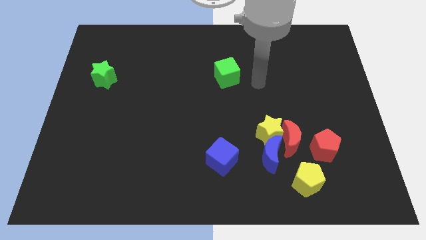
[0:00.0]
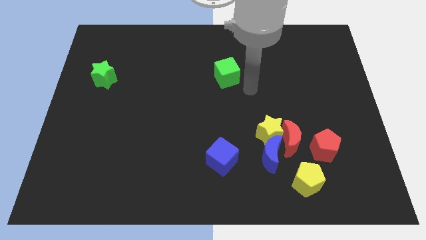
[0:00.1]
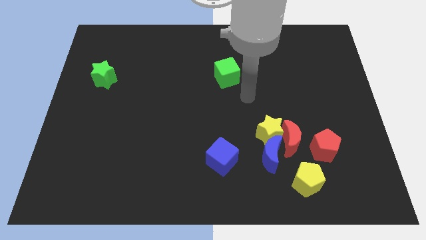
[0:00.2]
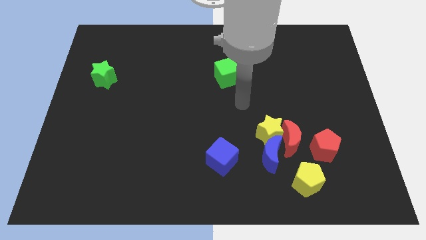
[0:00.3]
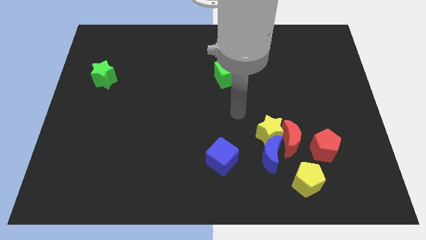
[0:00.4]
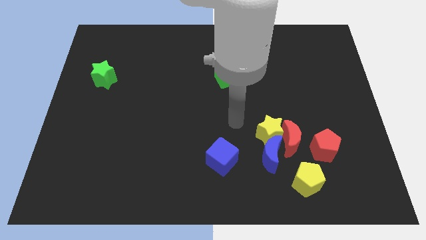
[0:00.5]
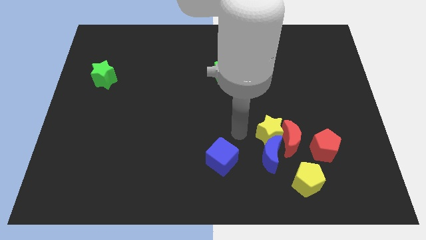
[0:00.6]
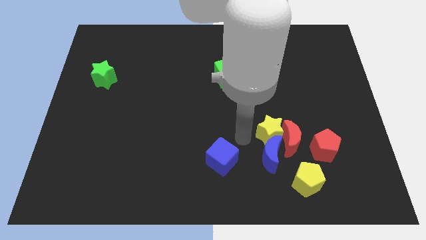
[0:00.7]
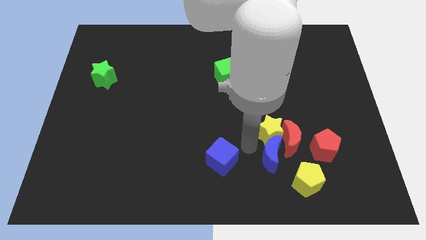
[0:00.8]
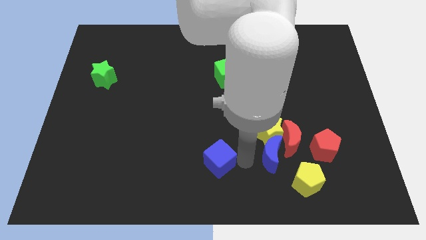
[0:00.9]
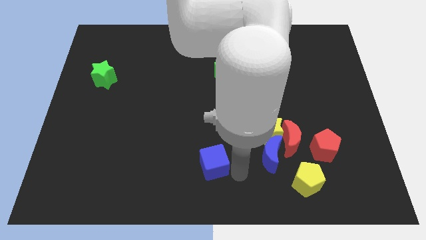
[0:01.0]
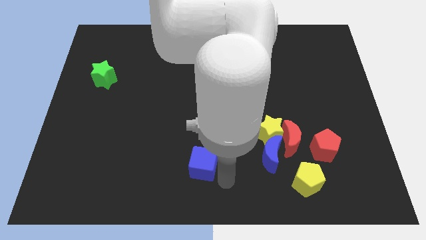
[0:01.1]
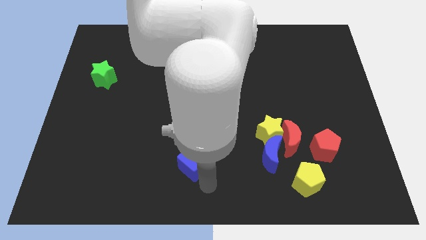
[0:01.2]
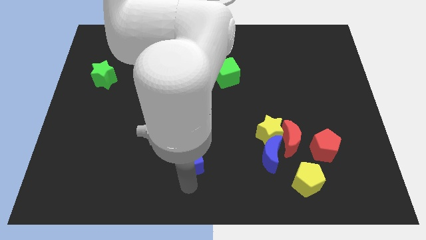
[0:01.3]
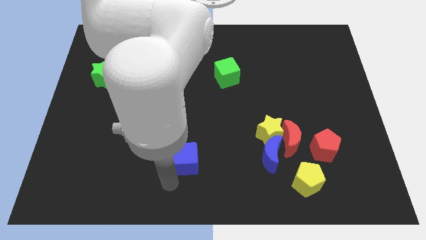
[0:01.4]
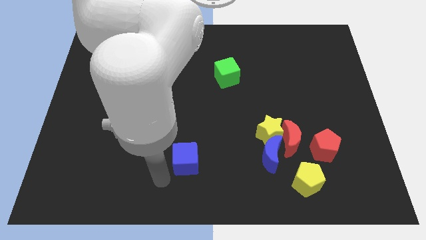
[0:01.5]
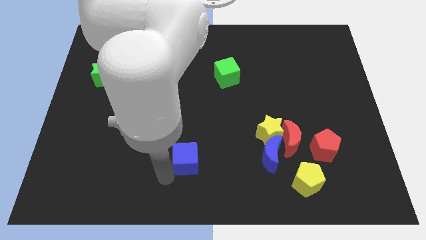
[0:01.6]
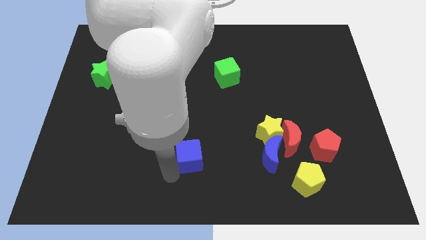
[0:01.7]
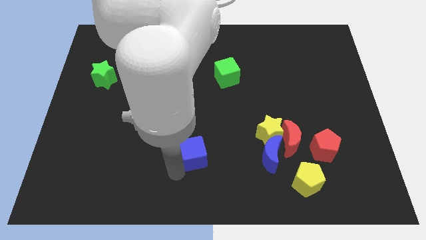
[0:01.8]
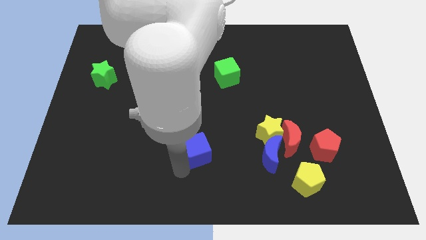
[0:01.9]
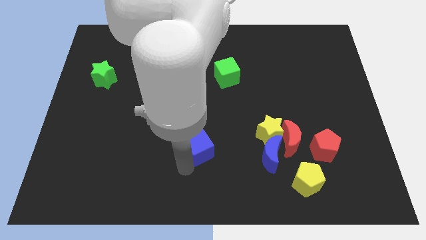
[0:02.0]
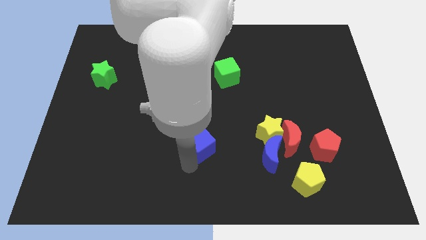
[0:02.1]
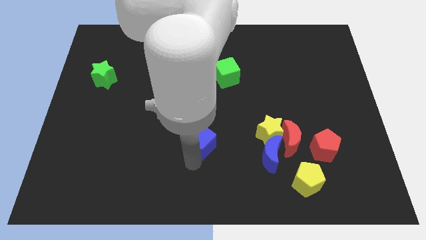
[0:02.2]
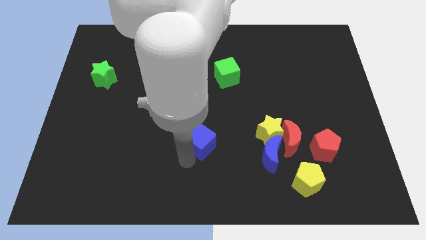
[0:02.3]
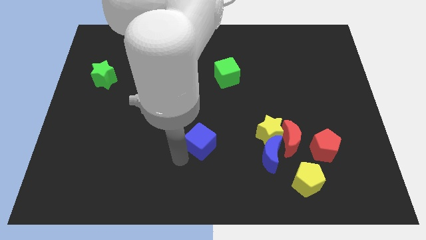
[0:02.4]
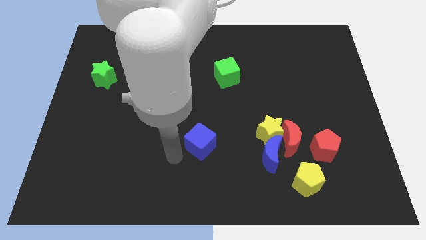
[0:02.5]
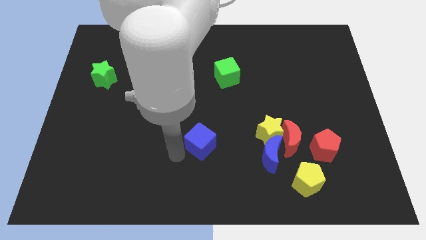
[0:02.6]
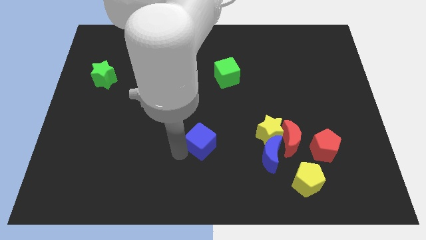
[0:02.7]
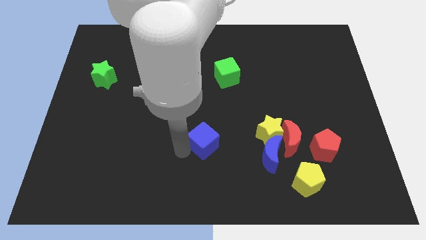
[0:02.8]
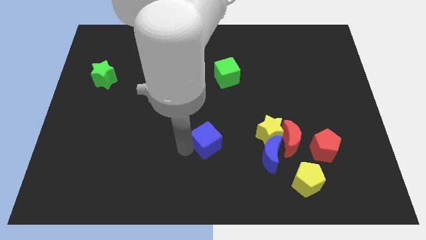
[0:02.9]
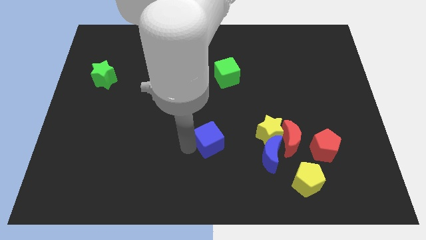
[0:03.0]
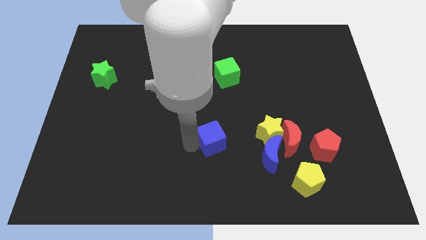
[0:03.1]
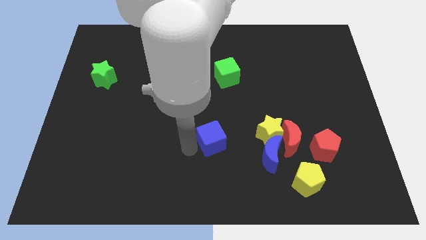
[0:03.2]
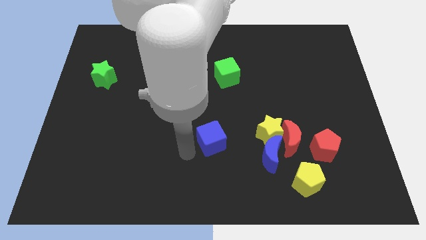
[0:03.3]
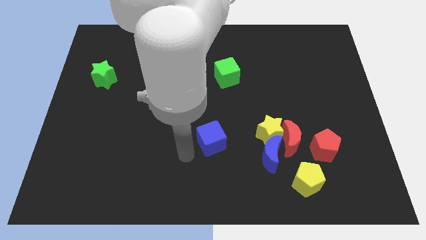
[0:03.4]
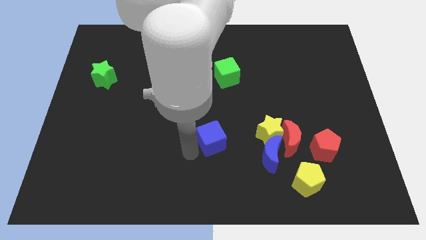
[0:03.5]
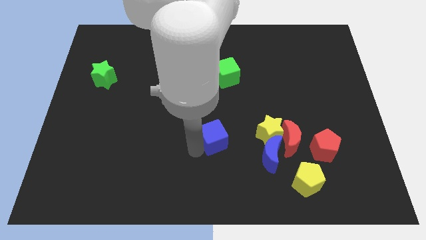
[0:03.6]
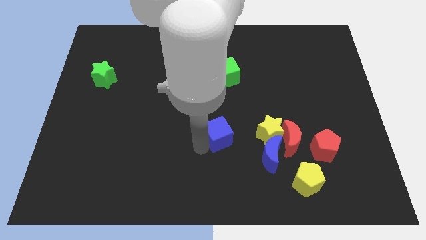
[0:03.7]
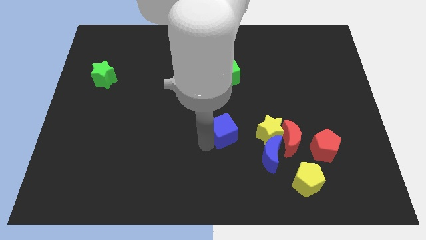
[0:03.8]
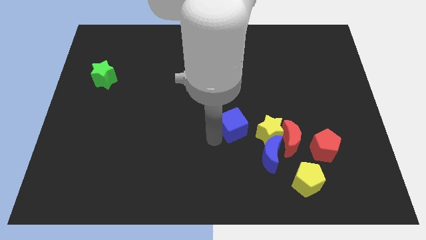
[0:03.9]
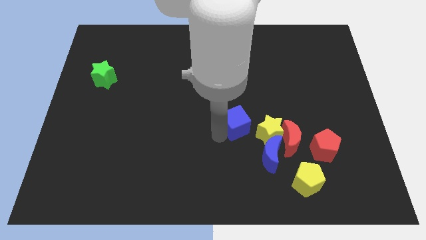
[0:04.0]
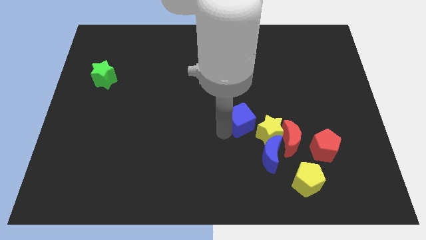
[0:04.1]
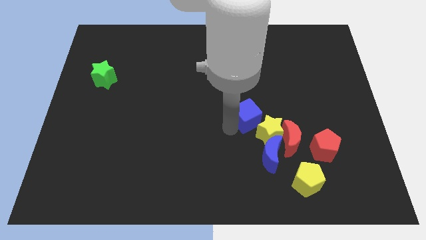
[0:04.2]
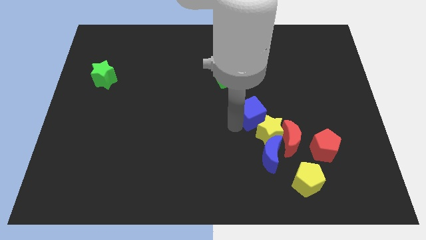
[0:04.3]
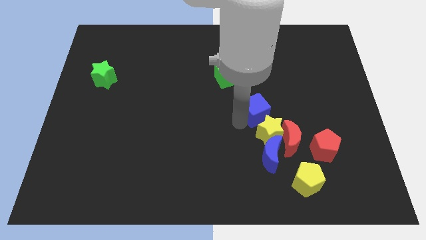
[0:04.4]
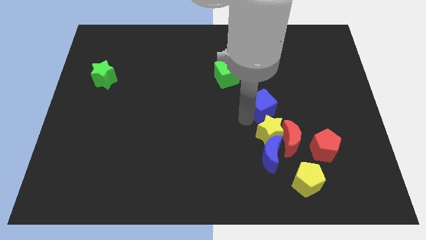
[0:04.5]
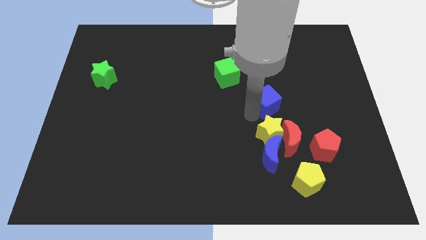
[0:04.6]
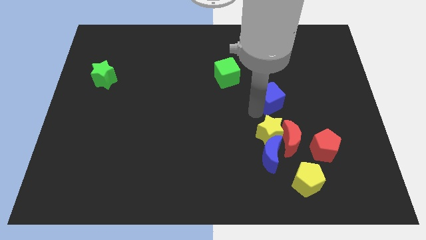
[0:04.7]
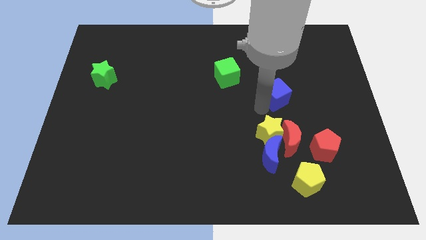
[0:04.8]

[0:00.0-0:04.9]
move the blue cube diagonally upwards and right

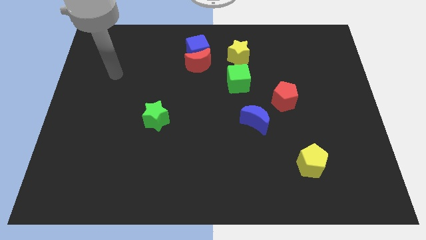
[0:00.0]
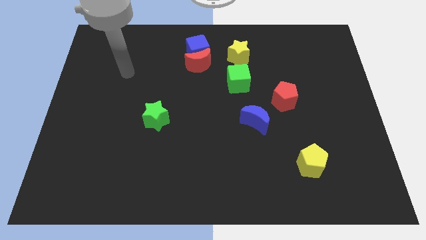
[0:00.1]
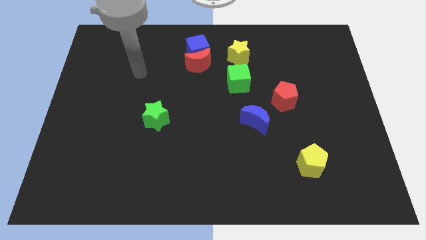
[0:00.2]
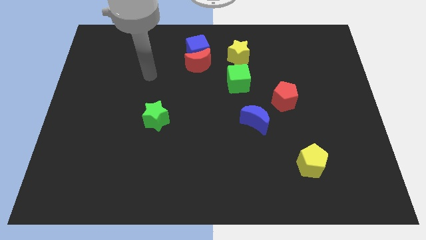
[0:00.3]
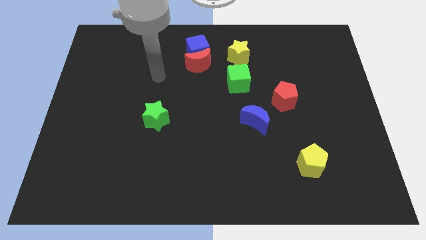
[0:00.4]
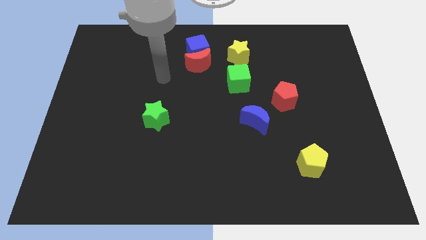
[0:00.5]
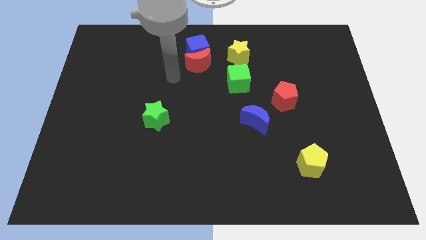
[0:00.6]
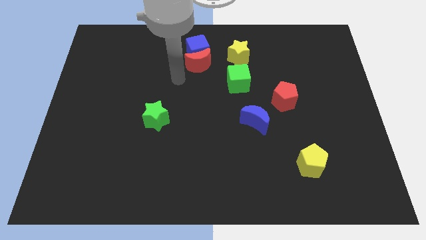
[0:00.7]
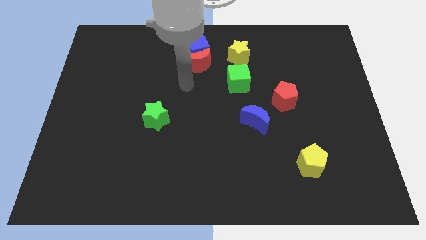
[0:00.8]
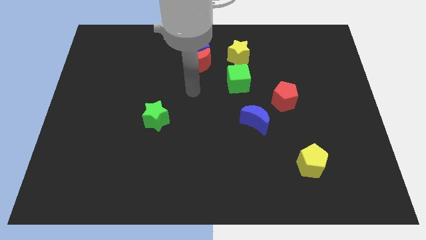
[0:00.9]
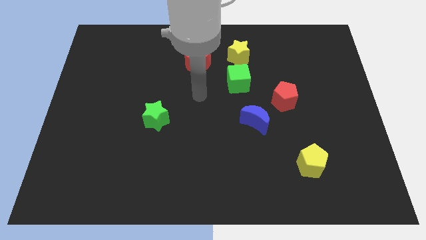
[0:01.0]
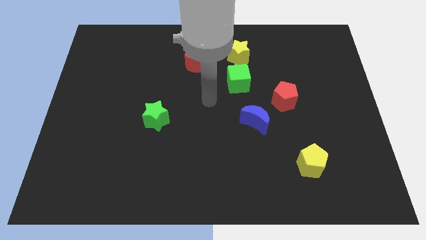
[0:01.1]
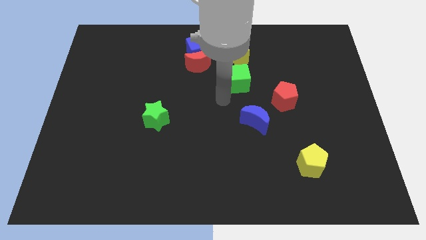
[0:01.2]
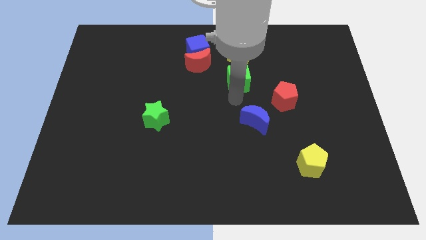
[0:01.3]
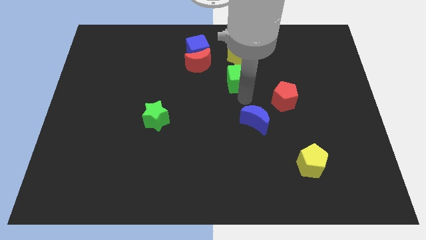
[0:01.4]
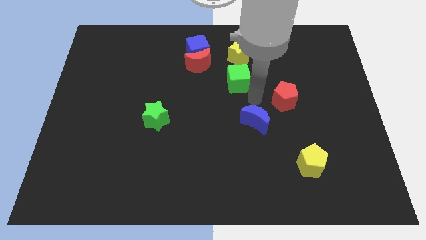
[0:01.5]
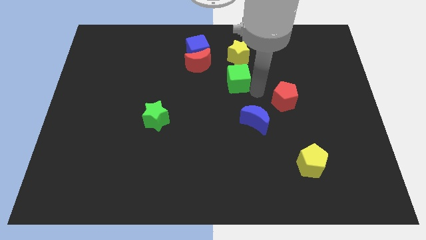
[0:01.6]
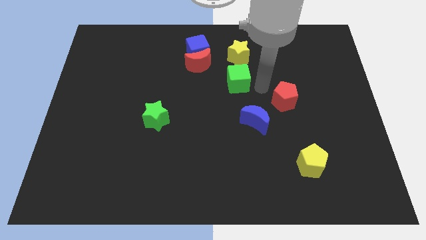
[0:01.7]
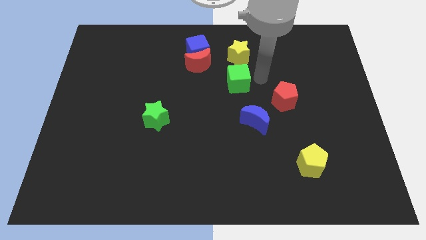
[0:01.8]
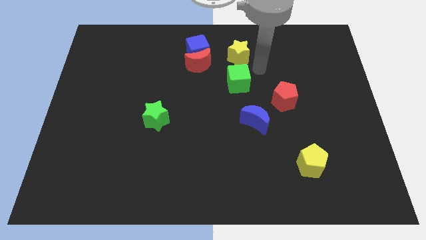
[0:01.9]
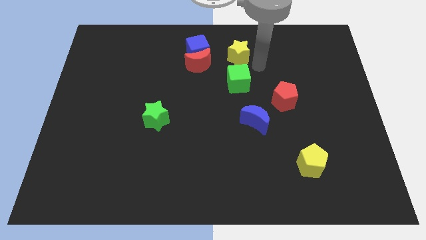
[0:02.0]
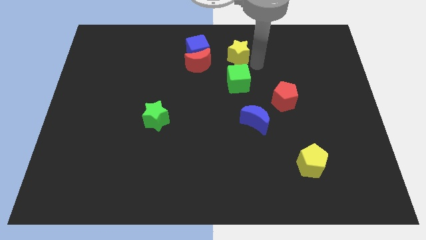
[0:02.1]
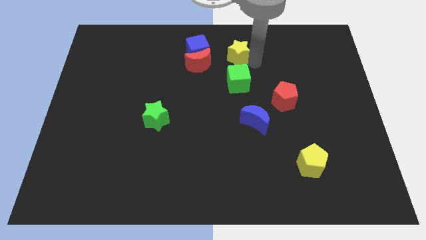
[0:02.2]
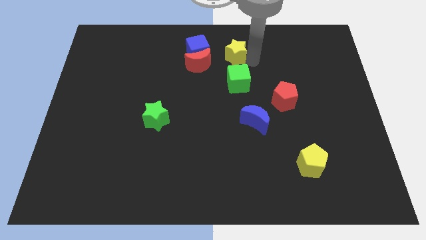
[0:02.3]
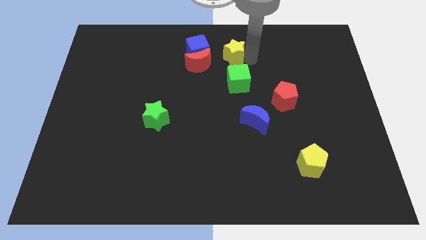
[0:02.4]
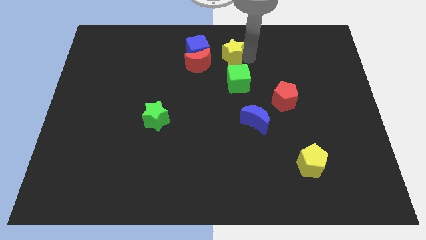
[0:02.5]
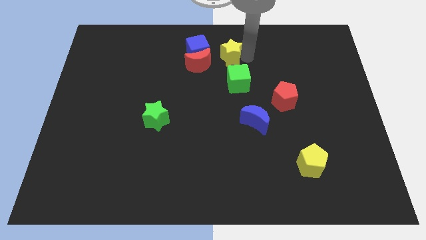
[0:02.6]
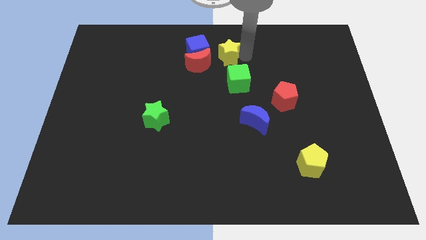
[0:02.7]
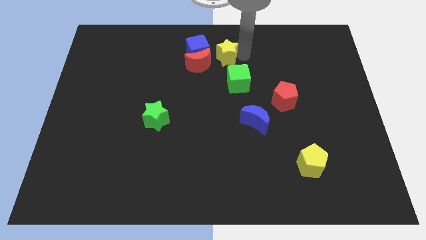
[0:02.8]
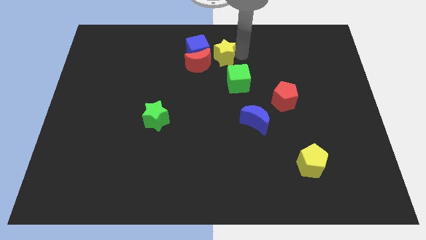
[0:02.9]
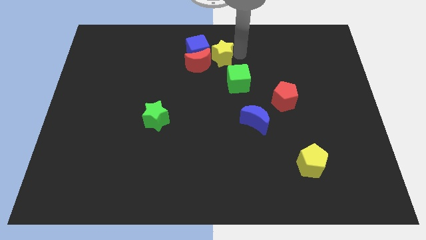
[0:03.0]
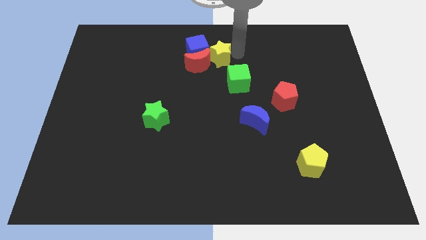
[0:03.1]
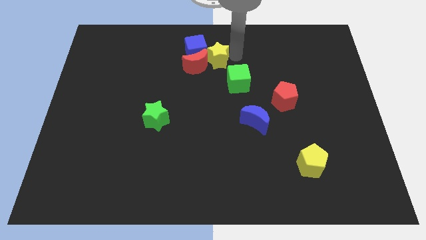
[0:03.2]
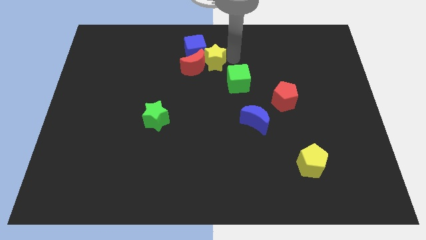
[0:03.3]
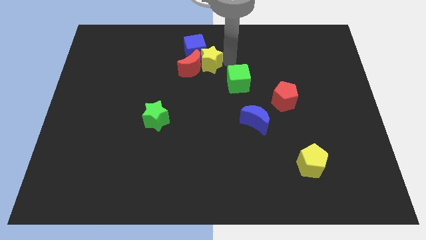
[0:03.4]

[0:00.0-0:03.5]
slightly slide the yellow star to the left
